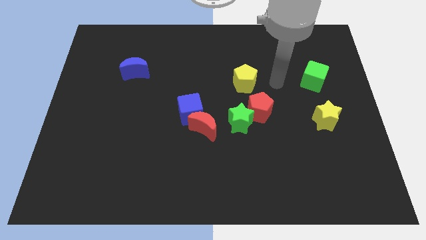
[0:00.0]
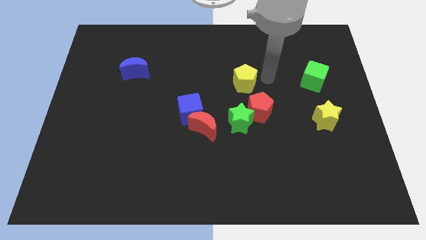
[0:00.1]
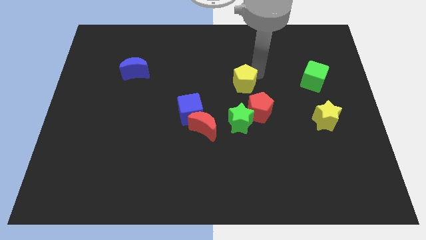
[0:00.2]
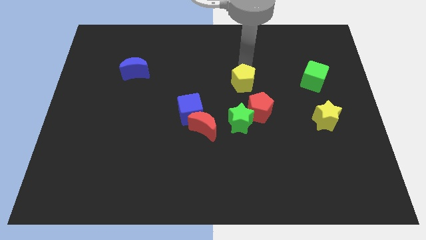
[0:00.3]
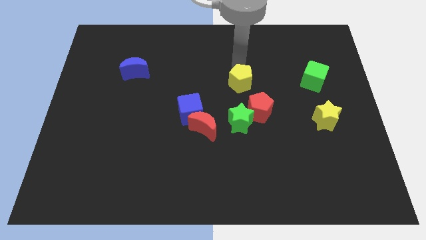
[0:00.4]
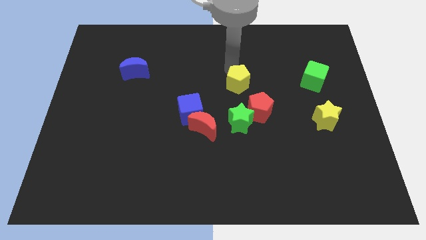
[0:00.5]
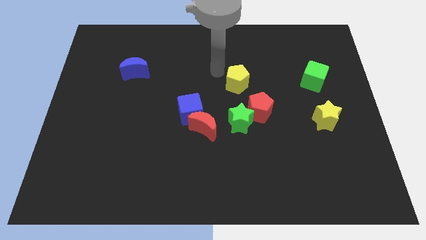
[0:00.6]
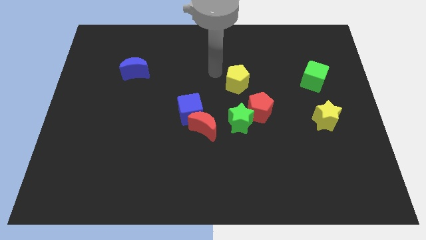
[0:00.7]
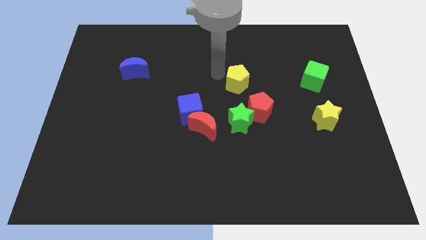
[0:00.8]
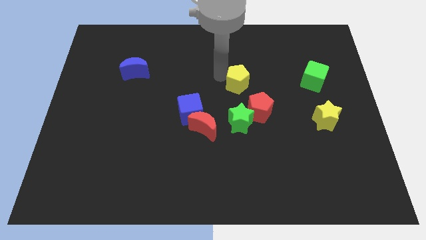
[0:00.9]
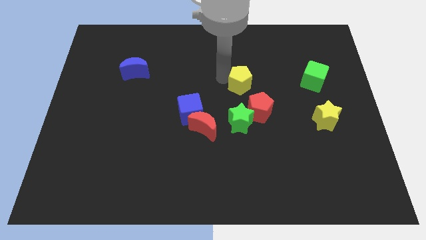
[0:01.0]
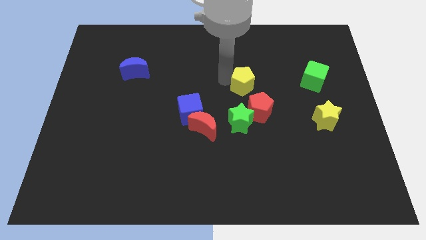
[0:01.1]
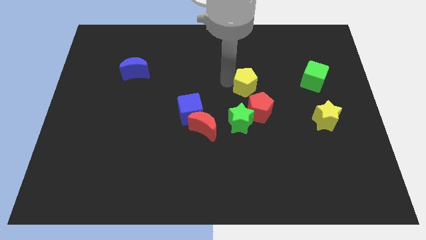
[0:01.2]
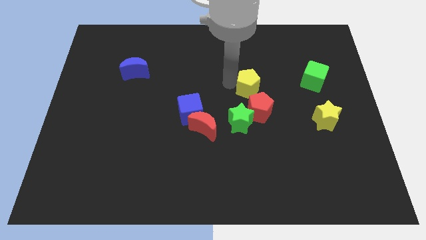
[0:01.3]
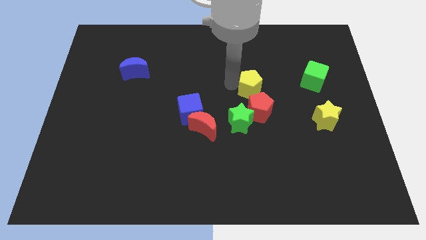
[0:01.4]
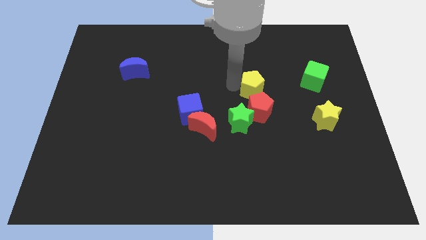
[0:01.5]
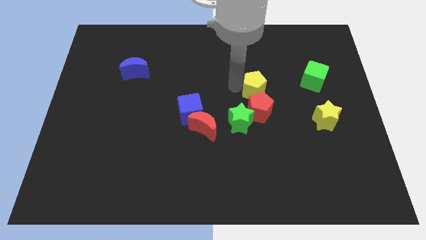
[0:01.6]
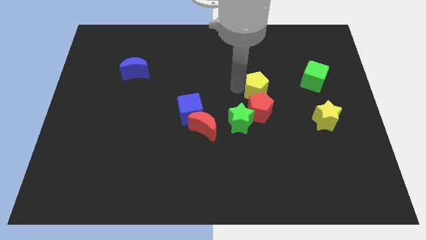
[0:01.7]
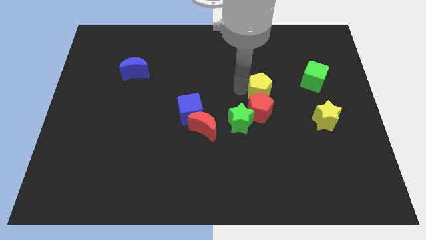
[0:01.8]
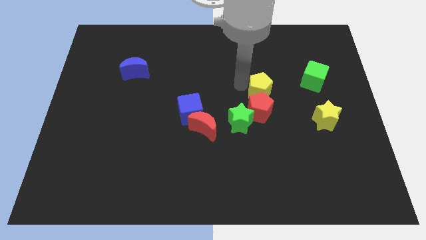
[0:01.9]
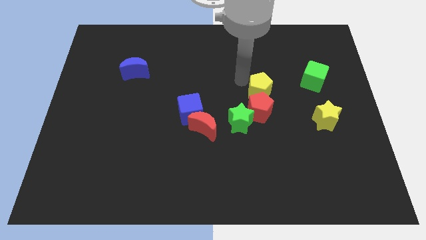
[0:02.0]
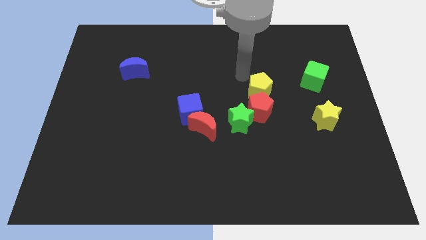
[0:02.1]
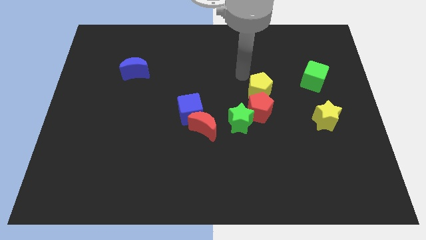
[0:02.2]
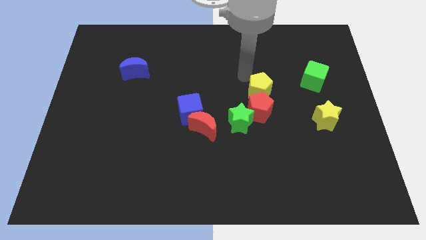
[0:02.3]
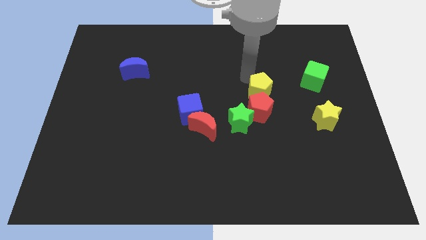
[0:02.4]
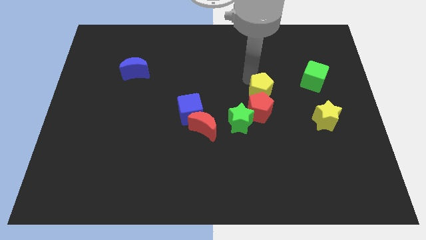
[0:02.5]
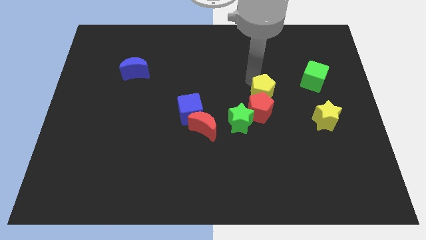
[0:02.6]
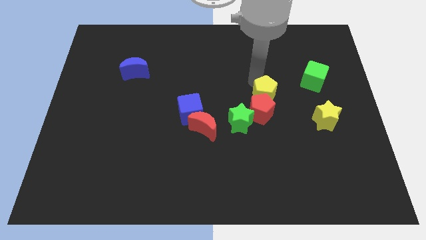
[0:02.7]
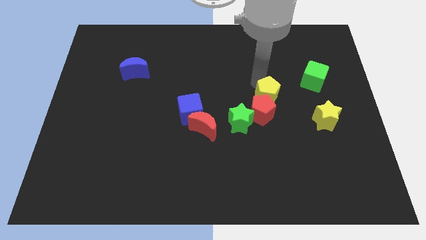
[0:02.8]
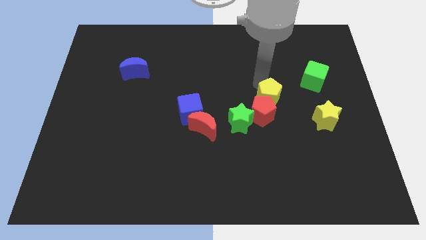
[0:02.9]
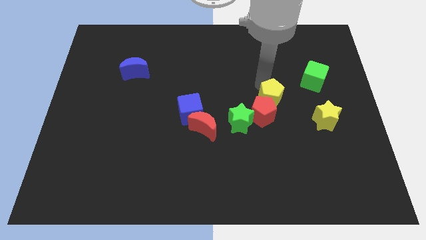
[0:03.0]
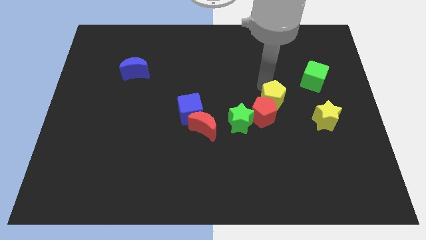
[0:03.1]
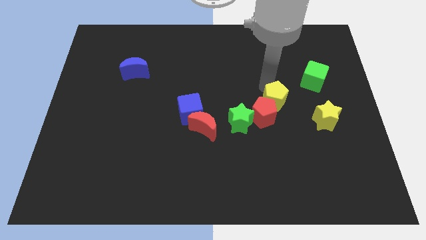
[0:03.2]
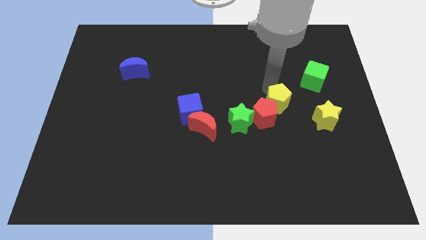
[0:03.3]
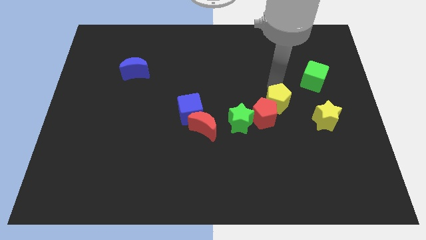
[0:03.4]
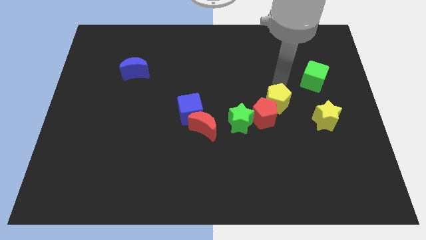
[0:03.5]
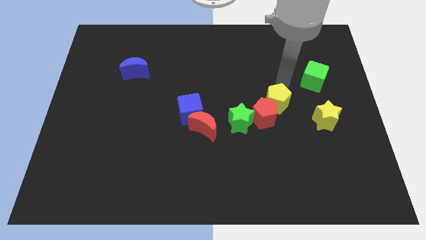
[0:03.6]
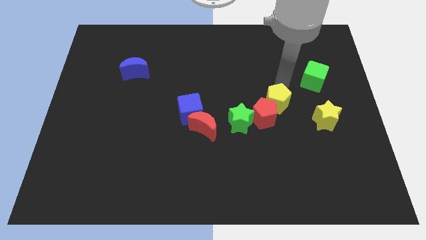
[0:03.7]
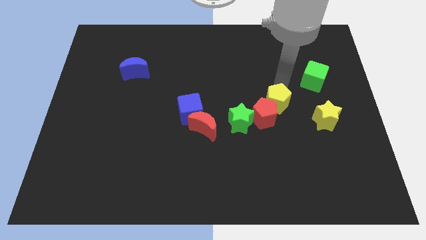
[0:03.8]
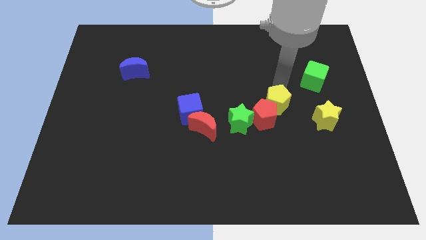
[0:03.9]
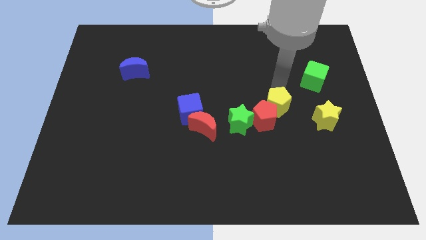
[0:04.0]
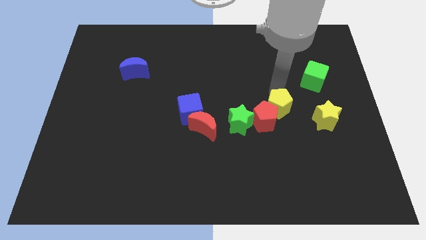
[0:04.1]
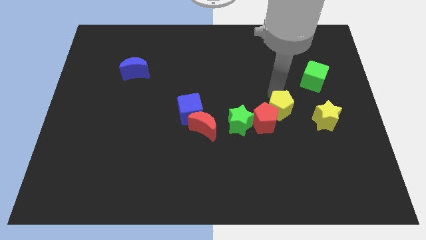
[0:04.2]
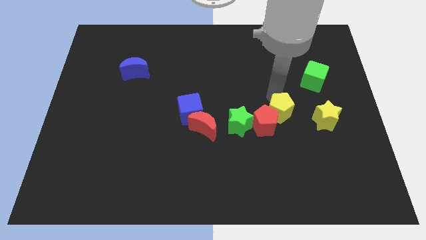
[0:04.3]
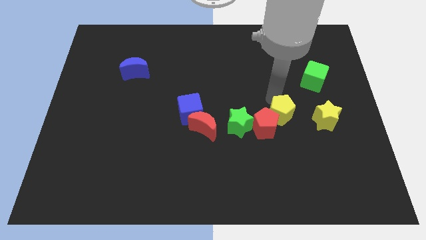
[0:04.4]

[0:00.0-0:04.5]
move the yellow pentagon slightly down

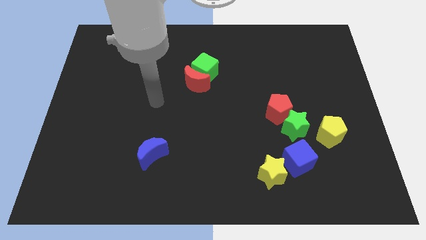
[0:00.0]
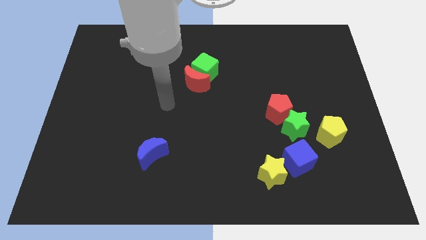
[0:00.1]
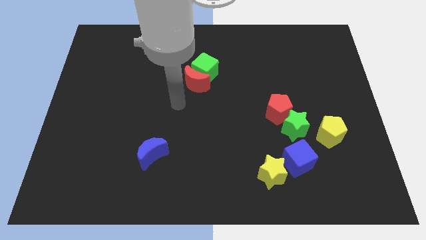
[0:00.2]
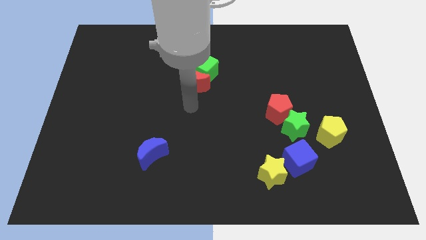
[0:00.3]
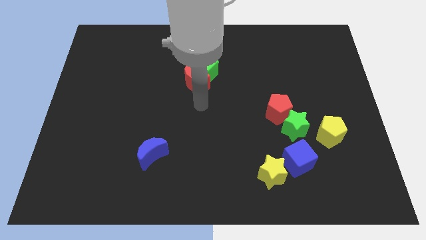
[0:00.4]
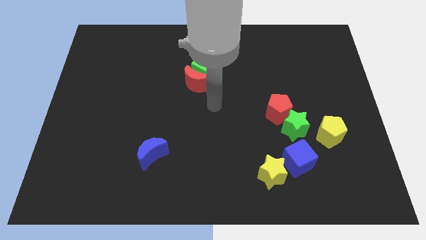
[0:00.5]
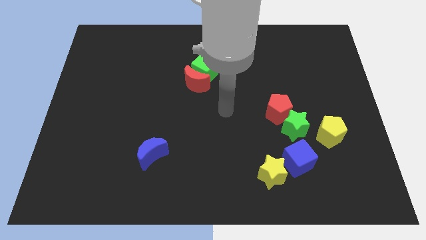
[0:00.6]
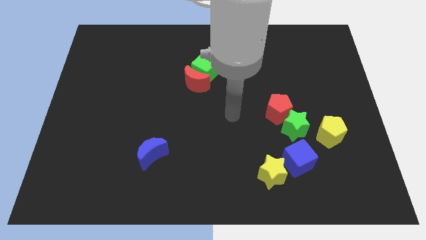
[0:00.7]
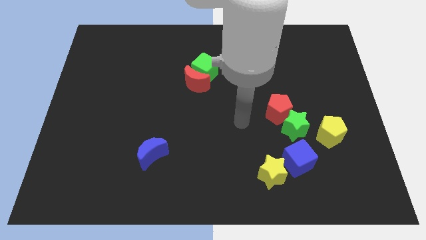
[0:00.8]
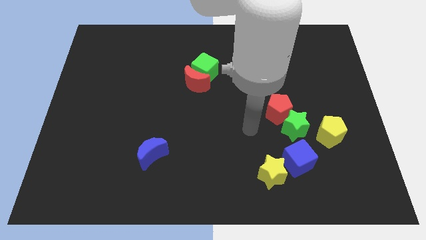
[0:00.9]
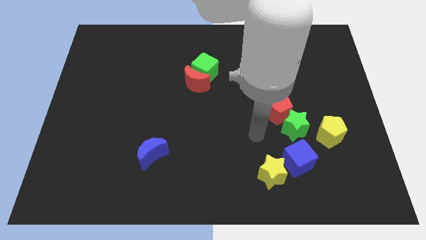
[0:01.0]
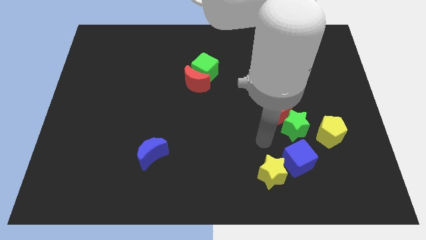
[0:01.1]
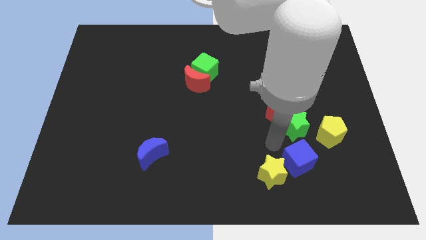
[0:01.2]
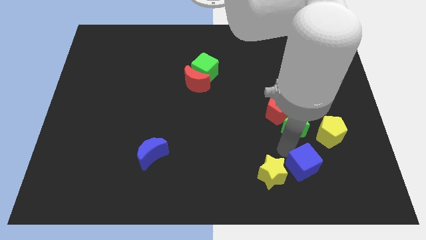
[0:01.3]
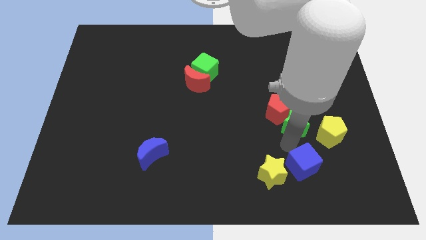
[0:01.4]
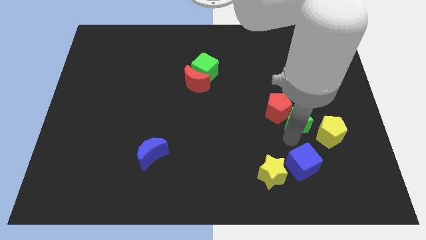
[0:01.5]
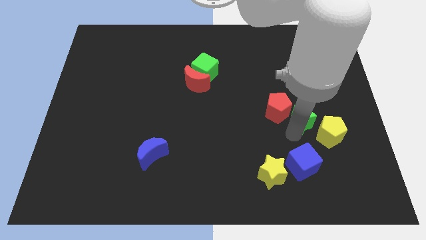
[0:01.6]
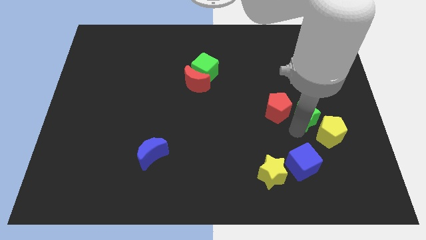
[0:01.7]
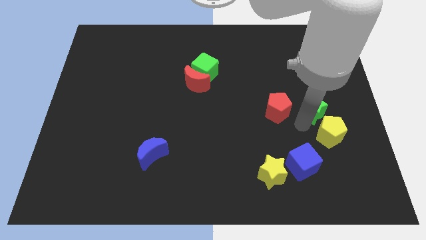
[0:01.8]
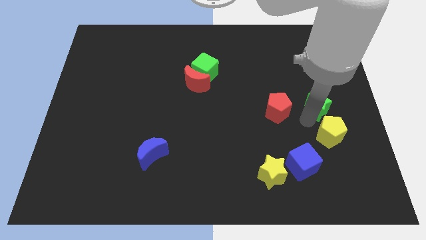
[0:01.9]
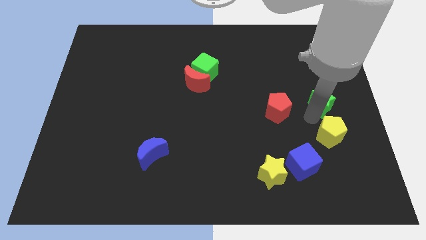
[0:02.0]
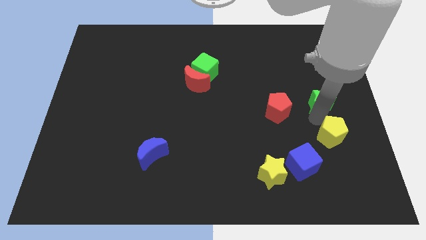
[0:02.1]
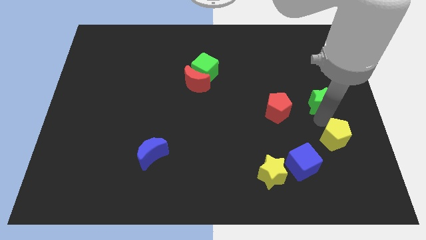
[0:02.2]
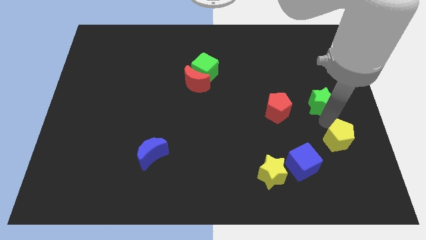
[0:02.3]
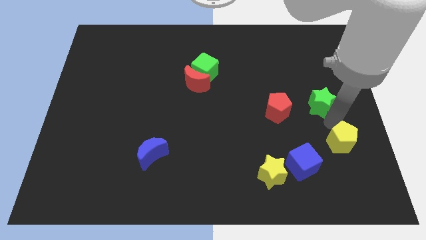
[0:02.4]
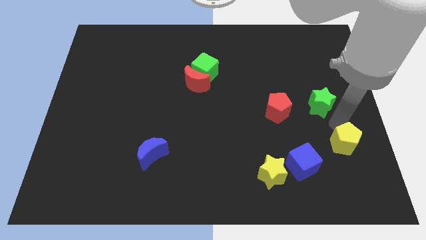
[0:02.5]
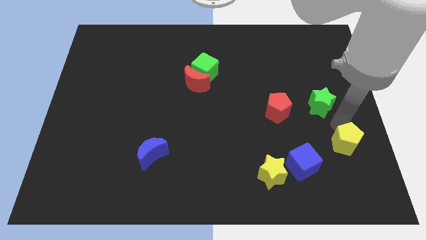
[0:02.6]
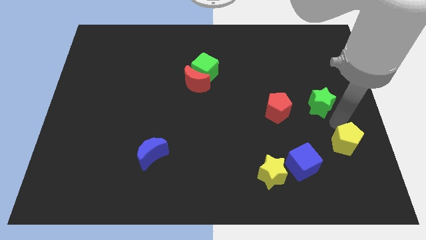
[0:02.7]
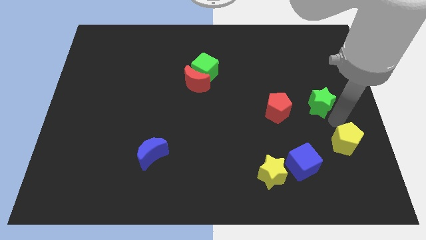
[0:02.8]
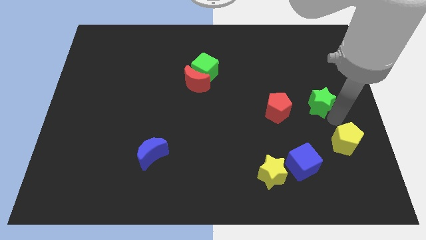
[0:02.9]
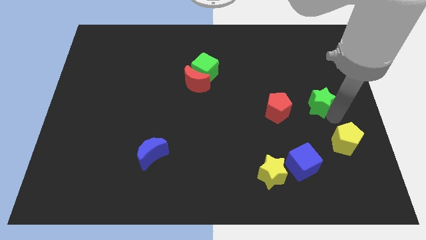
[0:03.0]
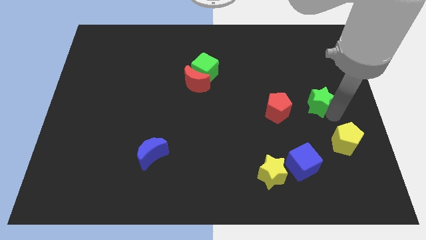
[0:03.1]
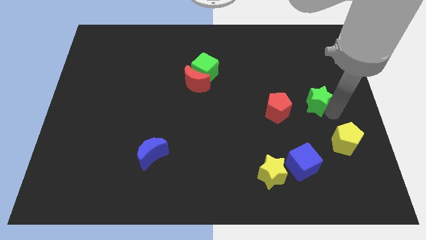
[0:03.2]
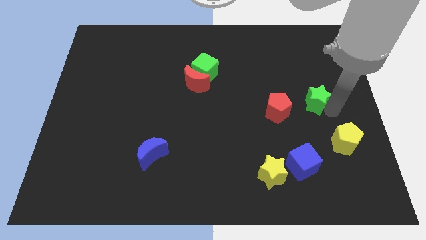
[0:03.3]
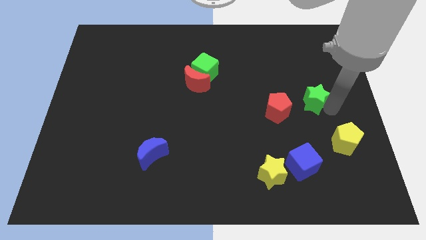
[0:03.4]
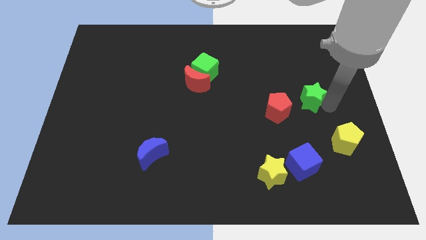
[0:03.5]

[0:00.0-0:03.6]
push the green star upwards a little
